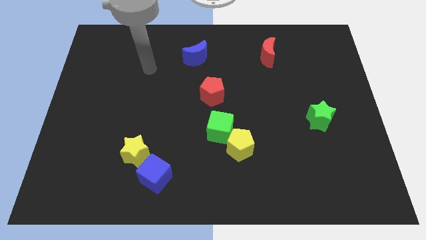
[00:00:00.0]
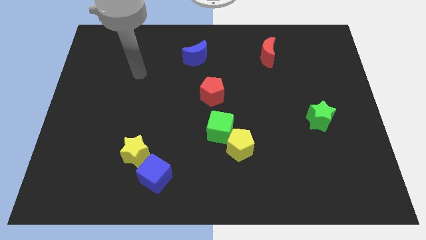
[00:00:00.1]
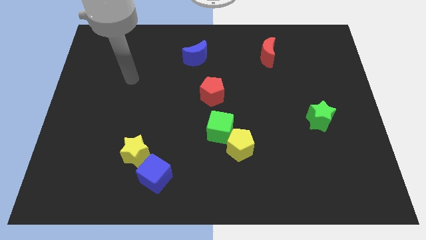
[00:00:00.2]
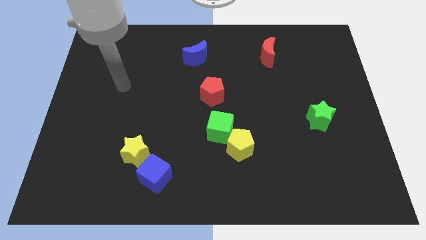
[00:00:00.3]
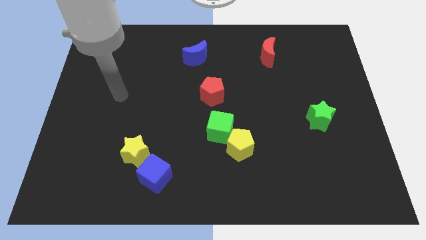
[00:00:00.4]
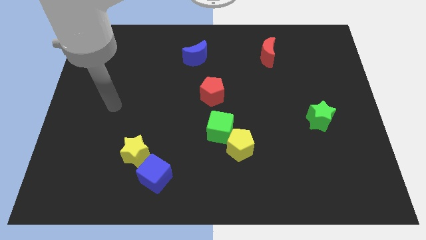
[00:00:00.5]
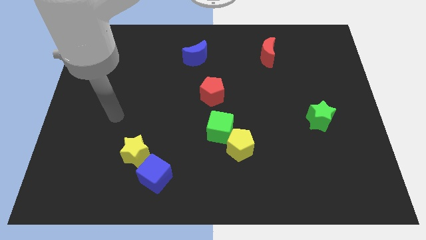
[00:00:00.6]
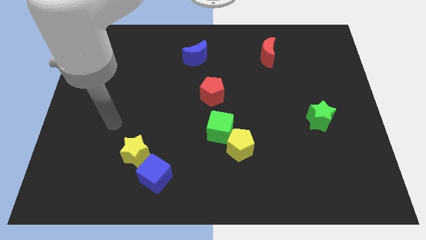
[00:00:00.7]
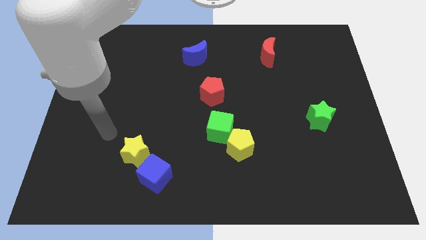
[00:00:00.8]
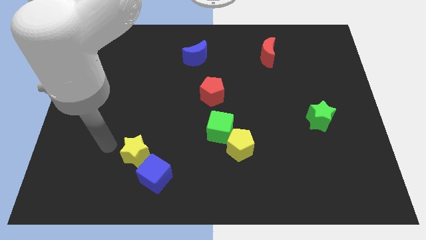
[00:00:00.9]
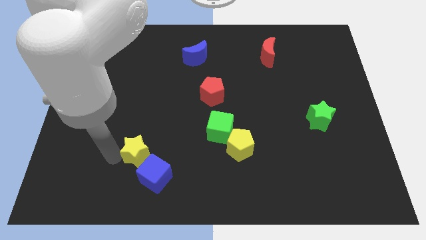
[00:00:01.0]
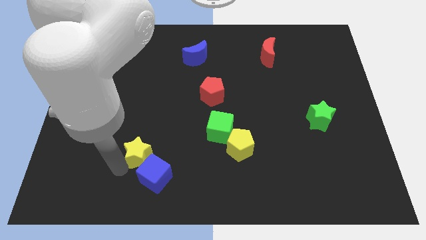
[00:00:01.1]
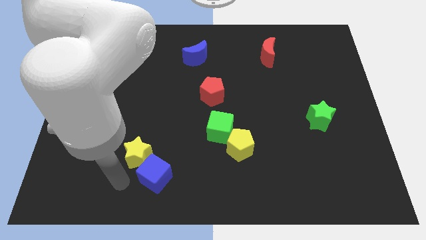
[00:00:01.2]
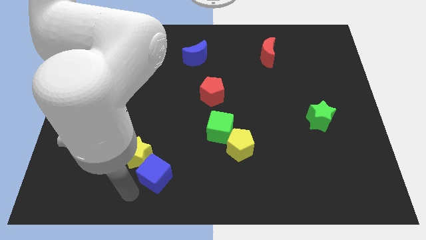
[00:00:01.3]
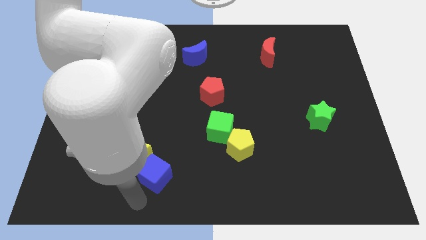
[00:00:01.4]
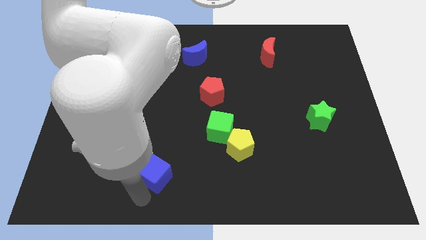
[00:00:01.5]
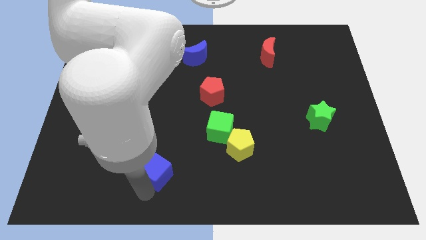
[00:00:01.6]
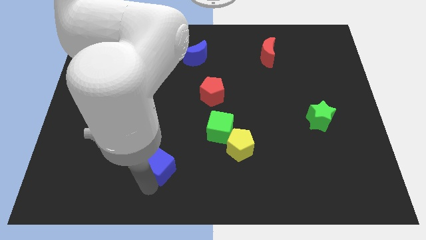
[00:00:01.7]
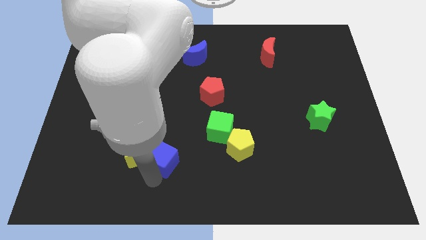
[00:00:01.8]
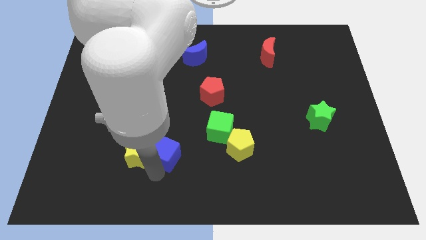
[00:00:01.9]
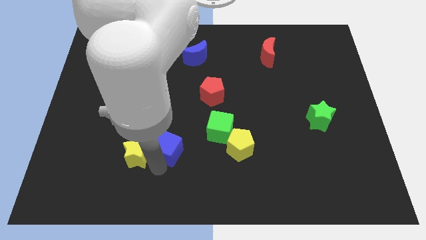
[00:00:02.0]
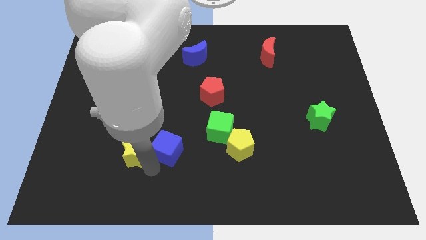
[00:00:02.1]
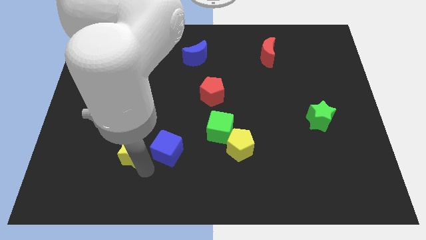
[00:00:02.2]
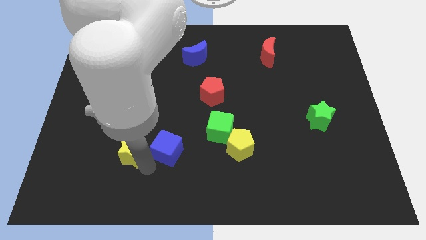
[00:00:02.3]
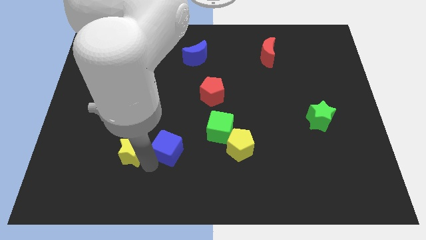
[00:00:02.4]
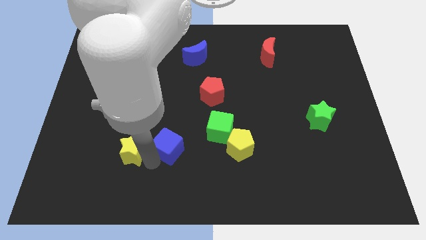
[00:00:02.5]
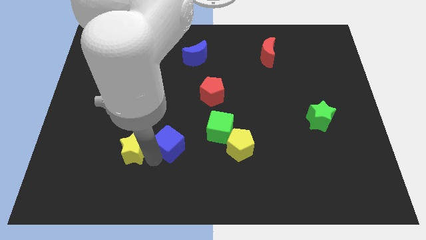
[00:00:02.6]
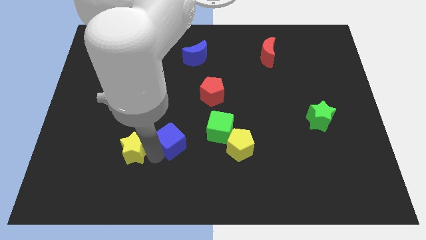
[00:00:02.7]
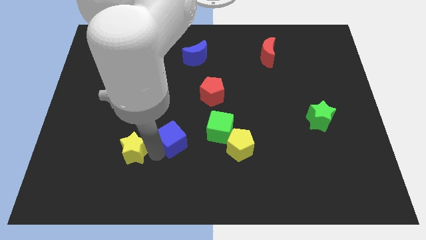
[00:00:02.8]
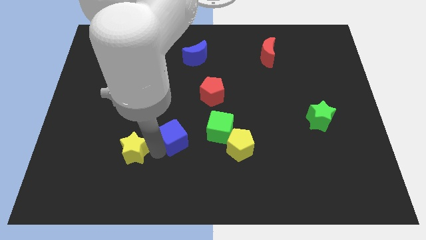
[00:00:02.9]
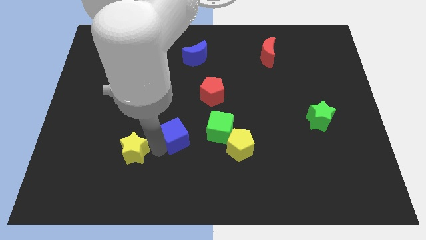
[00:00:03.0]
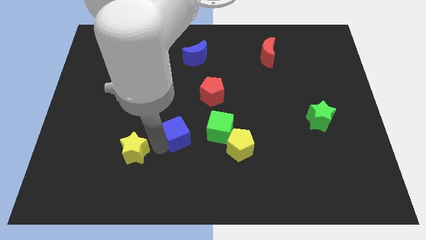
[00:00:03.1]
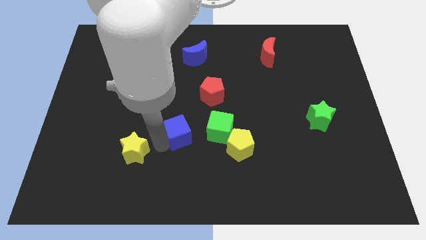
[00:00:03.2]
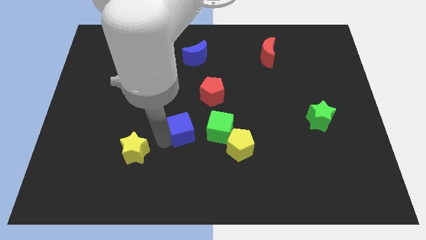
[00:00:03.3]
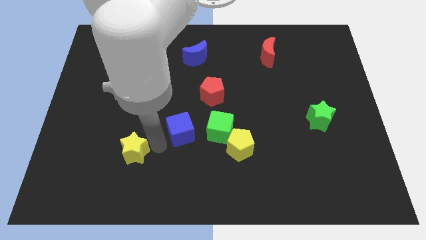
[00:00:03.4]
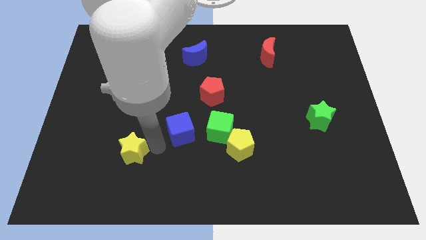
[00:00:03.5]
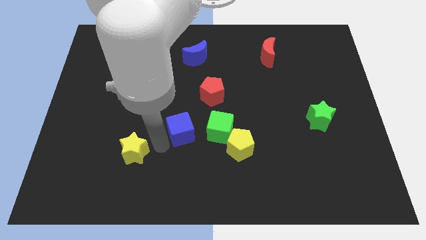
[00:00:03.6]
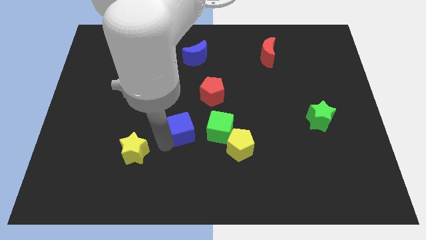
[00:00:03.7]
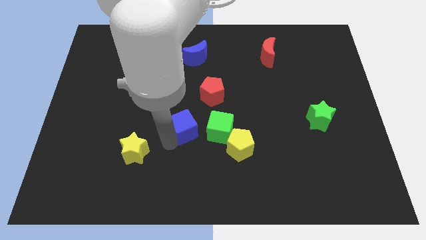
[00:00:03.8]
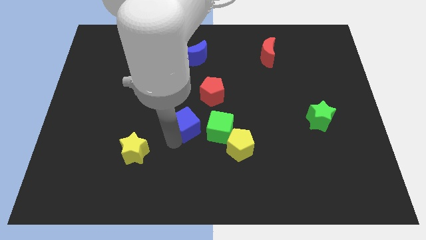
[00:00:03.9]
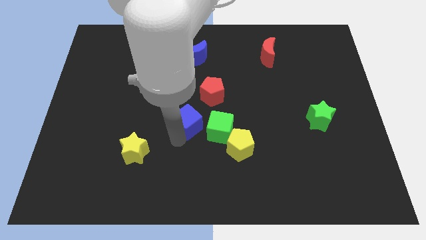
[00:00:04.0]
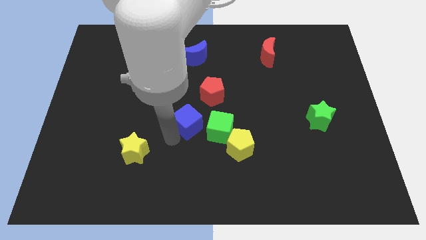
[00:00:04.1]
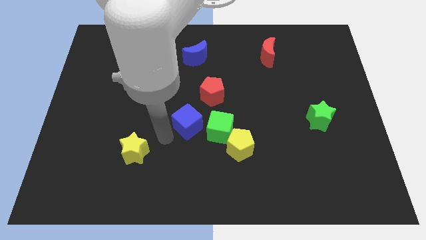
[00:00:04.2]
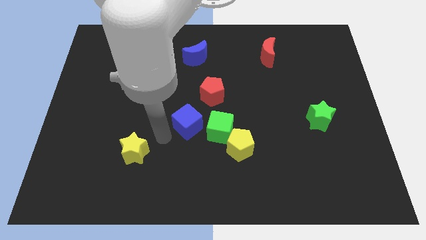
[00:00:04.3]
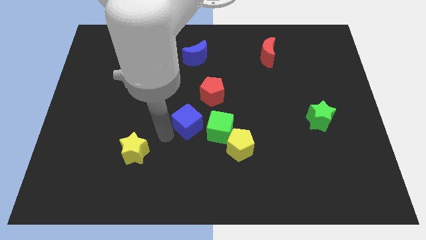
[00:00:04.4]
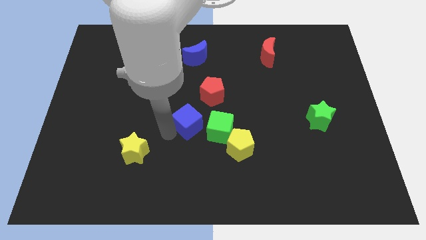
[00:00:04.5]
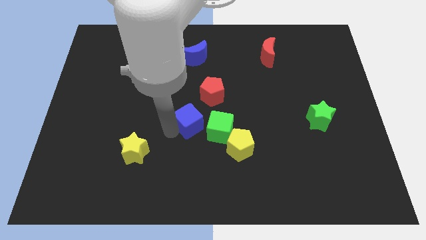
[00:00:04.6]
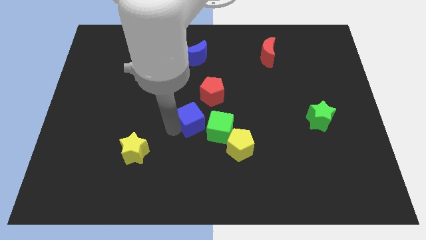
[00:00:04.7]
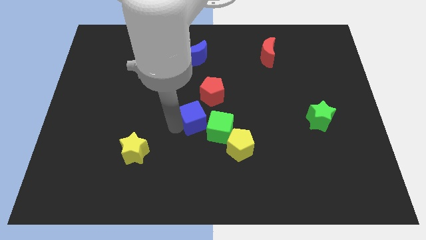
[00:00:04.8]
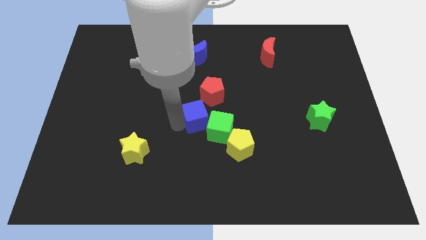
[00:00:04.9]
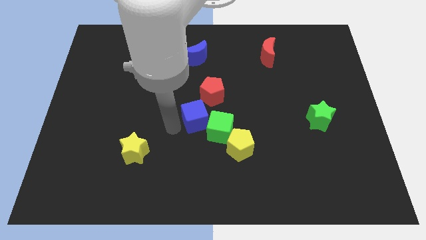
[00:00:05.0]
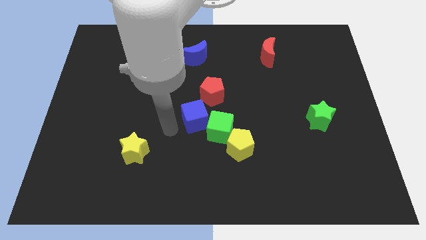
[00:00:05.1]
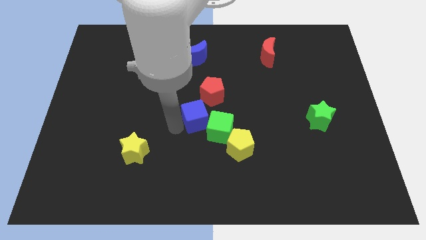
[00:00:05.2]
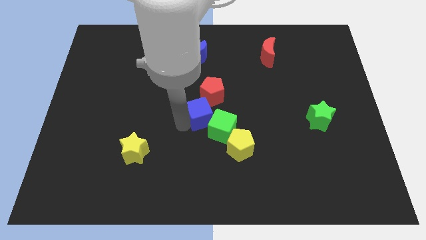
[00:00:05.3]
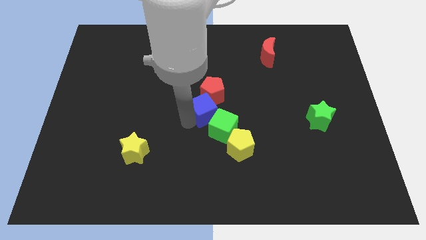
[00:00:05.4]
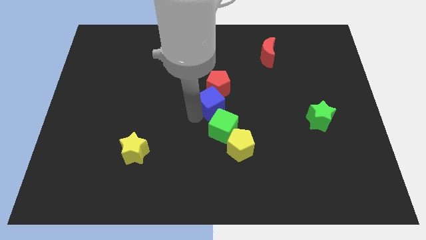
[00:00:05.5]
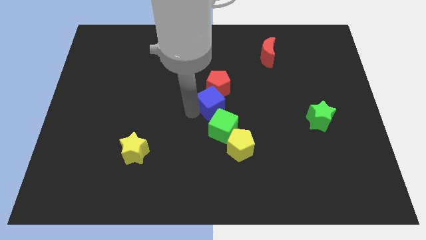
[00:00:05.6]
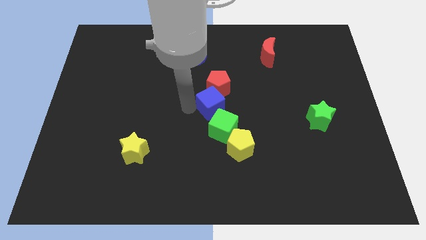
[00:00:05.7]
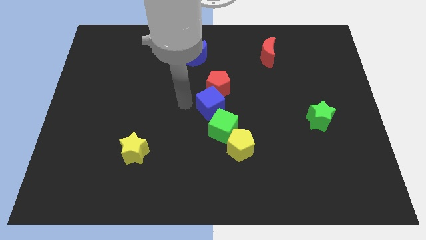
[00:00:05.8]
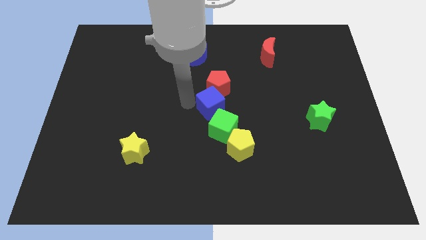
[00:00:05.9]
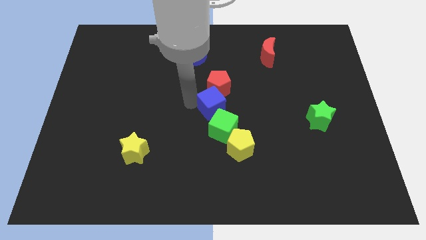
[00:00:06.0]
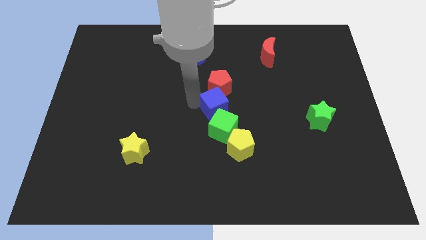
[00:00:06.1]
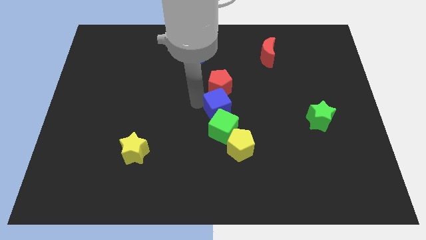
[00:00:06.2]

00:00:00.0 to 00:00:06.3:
put the blue cube above the yellow pentagon
